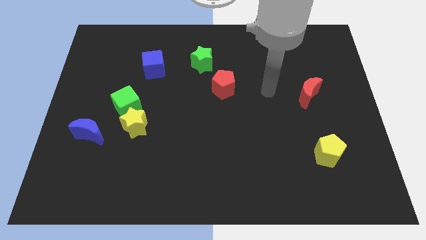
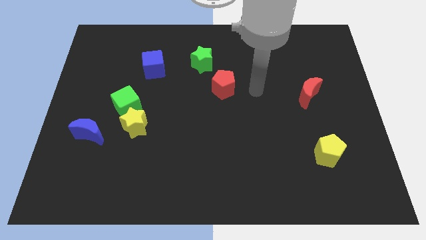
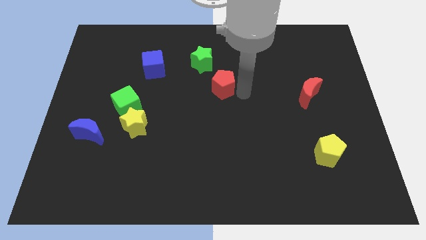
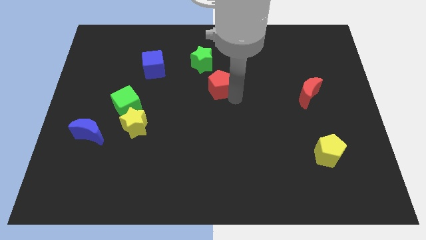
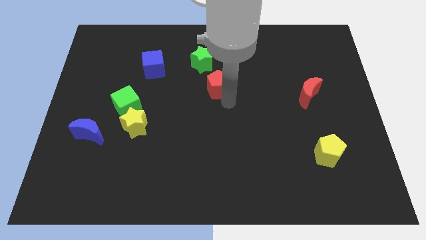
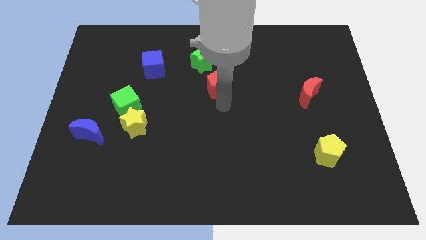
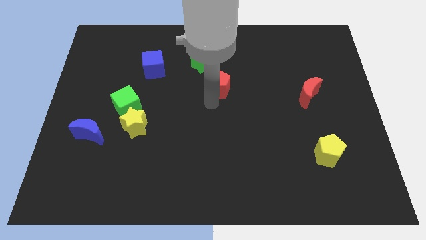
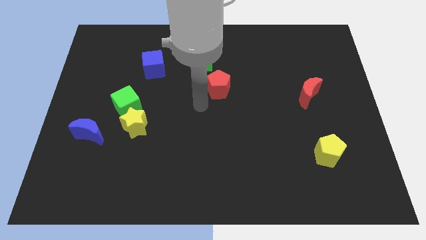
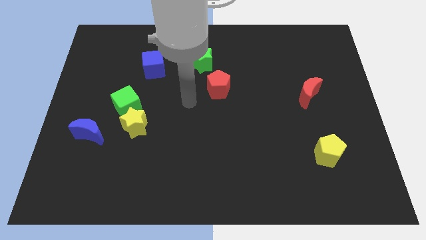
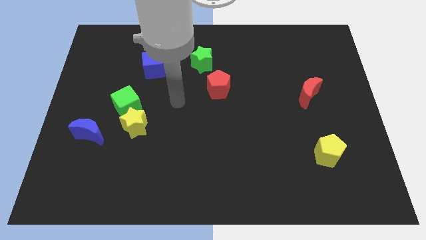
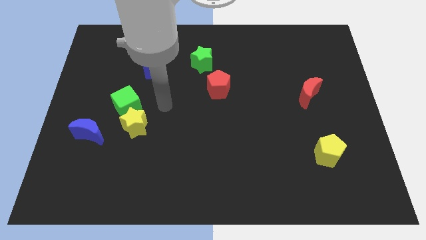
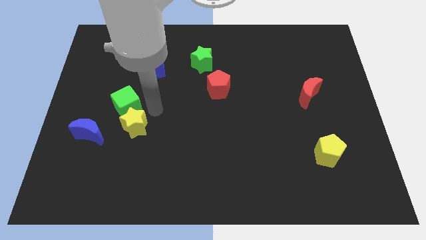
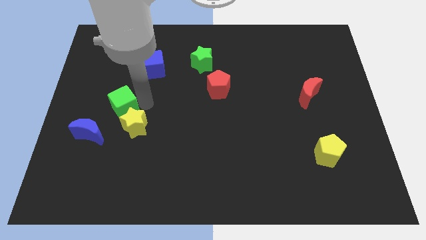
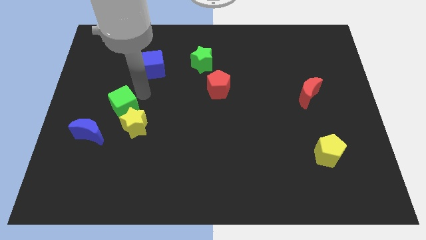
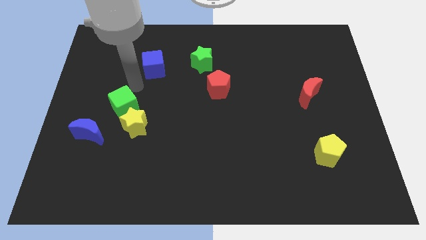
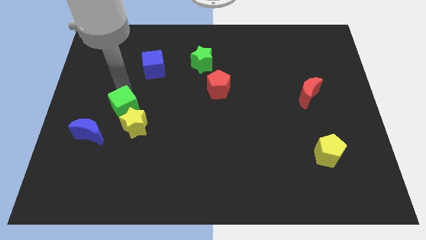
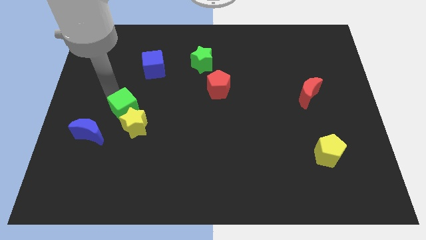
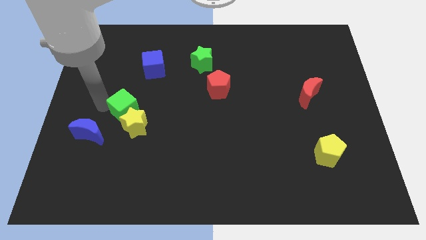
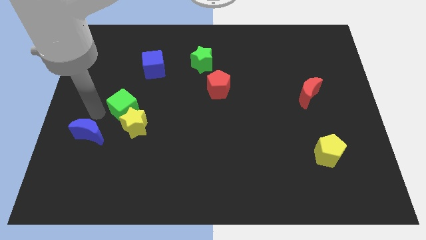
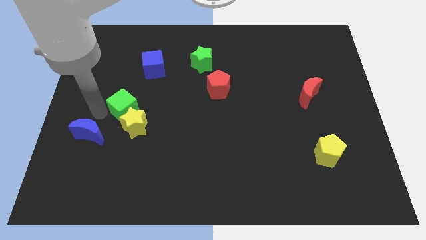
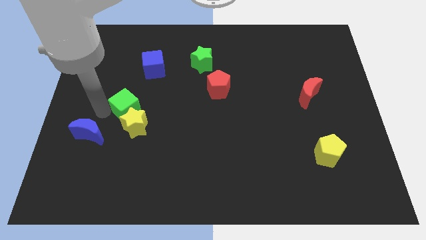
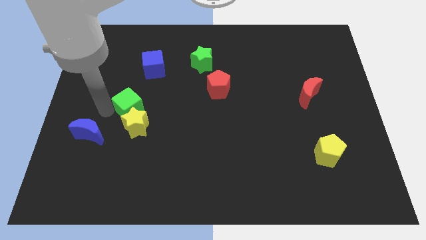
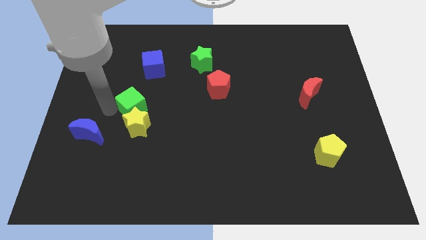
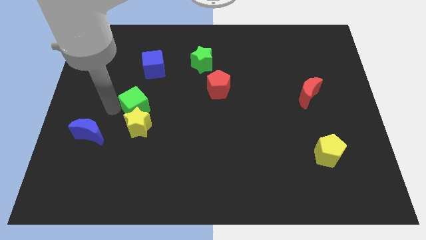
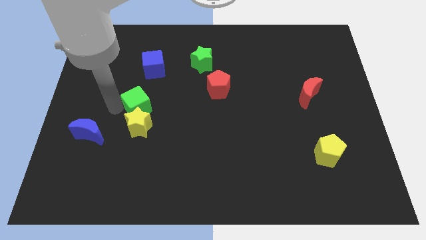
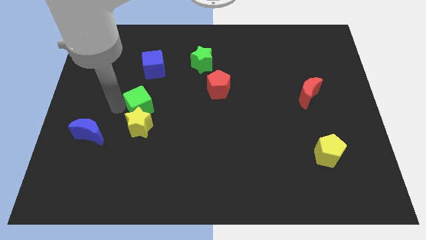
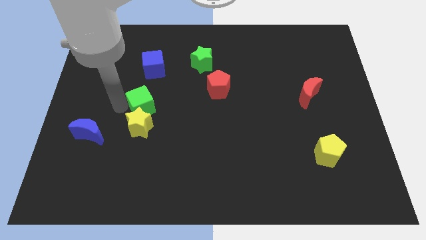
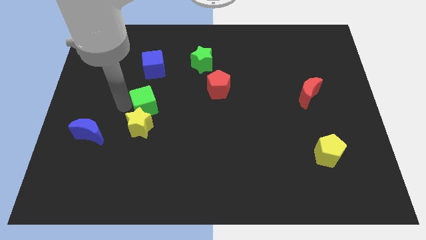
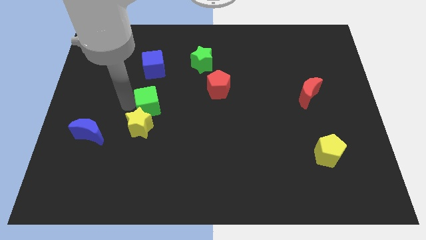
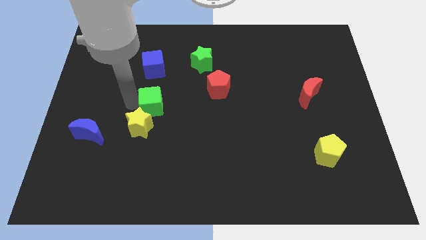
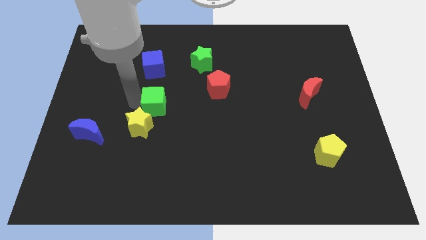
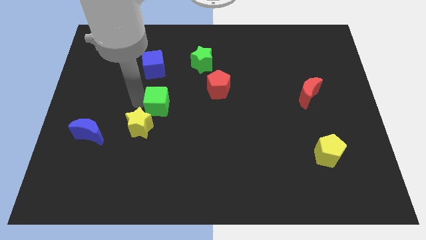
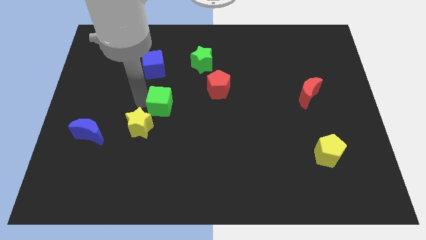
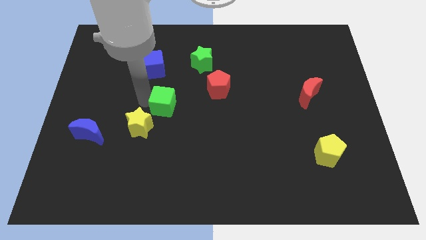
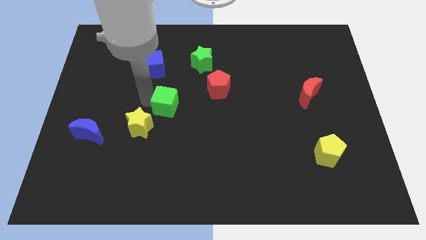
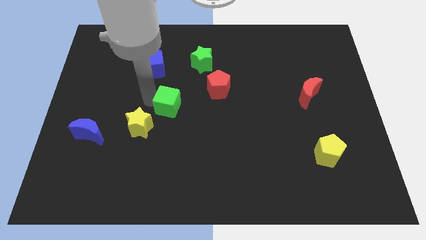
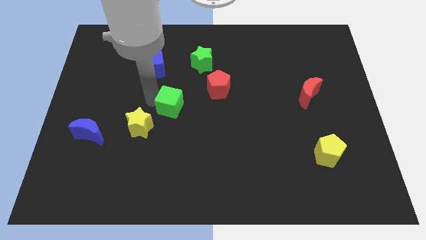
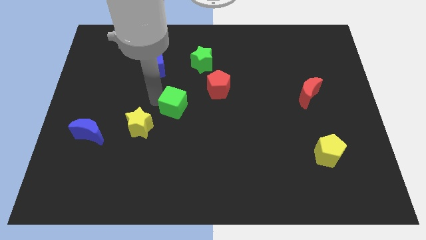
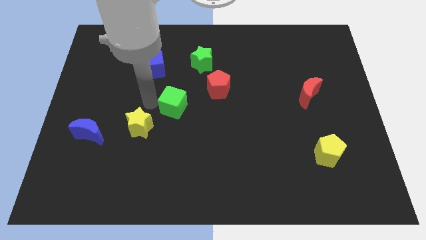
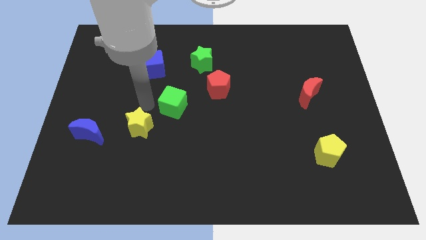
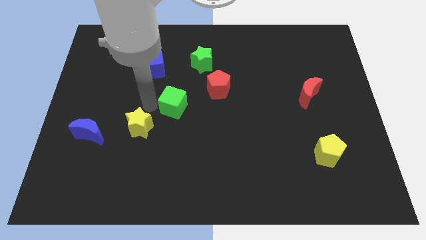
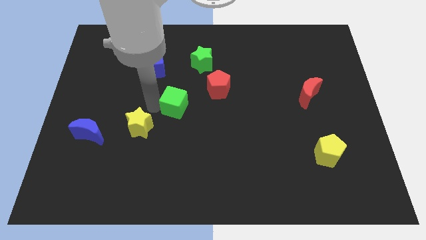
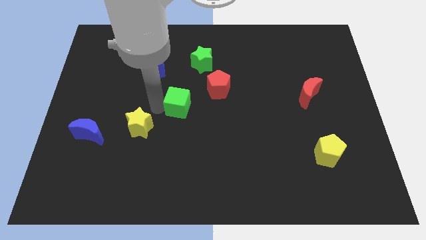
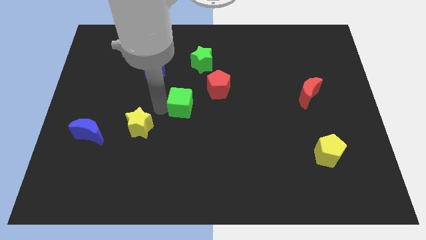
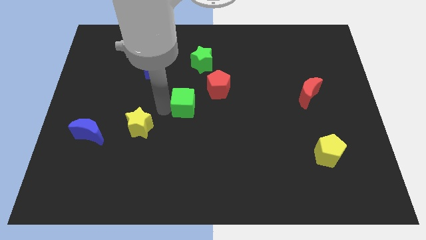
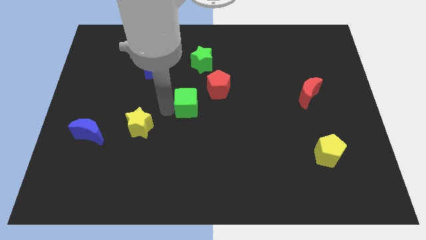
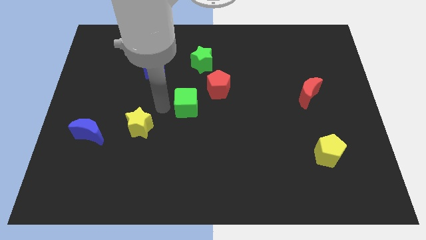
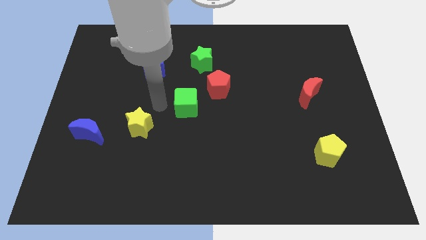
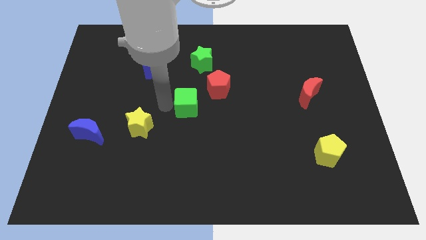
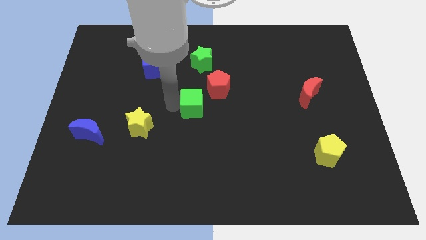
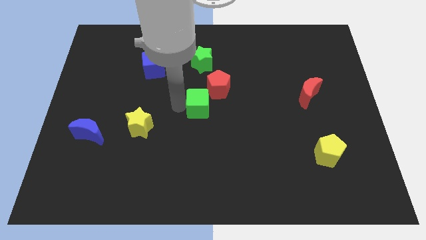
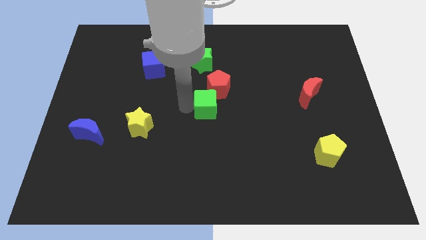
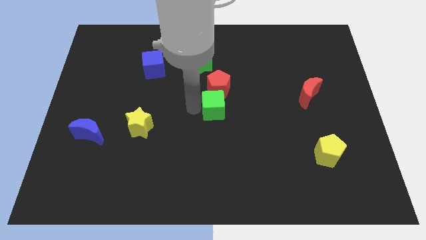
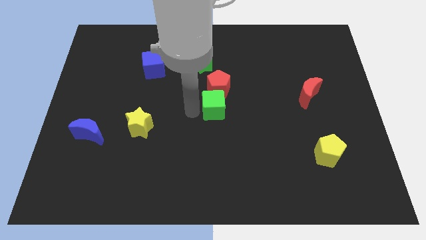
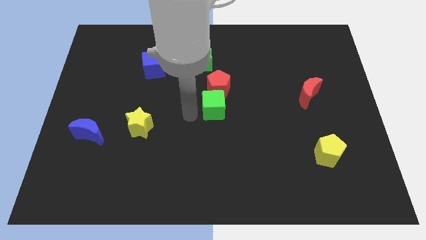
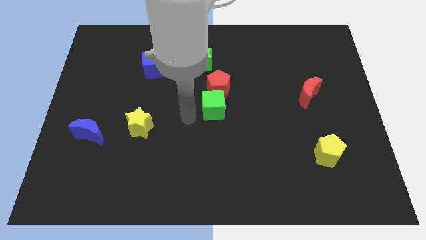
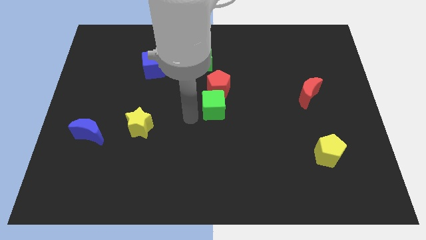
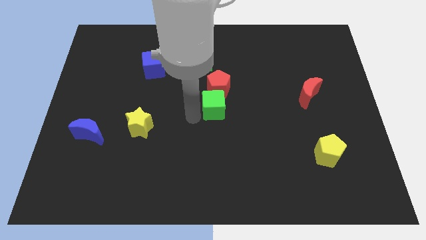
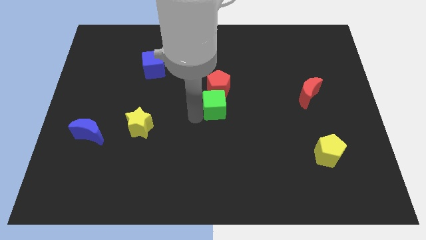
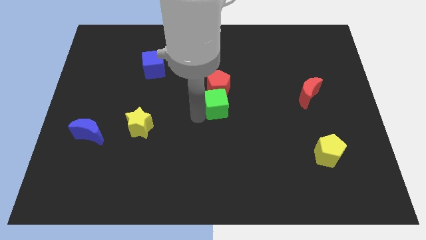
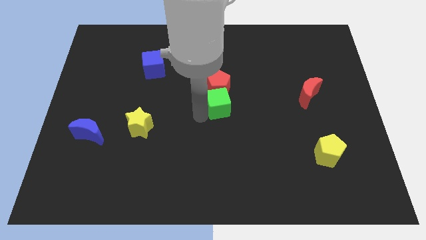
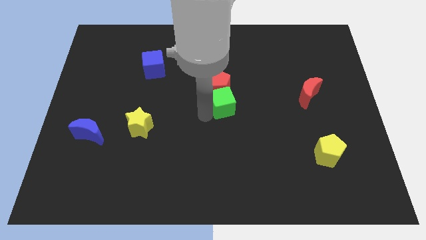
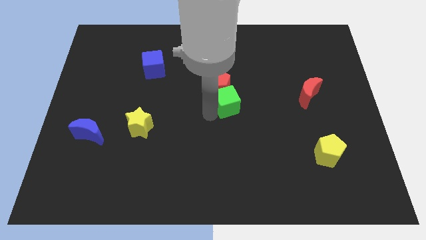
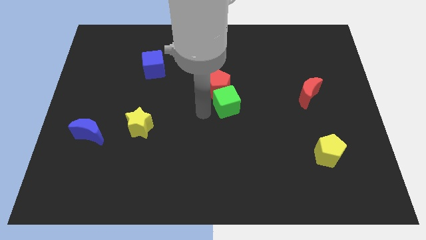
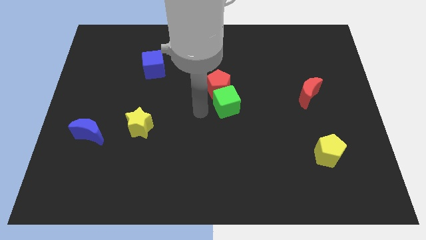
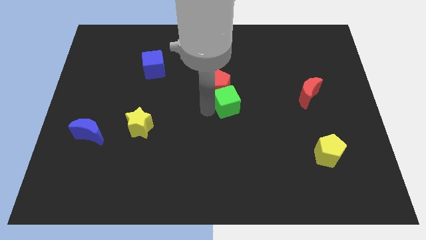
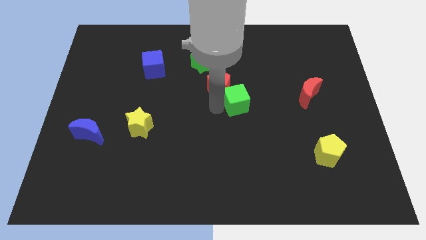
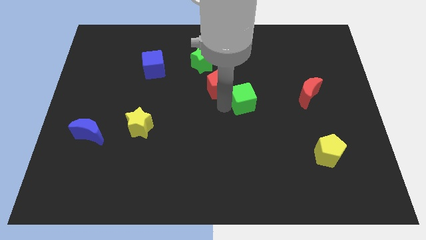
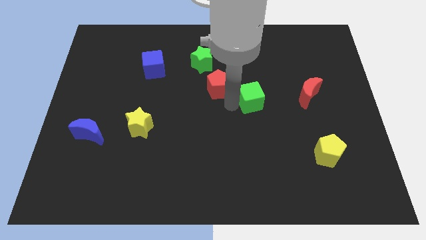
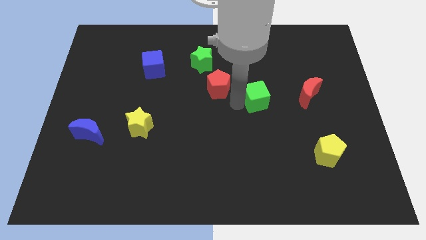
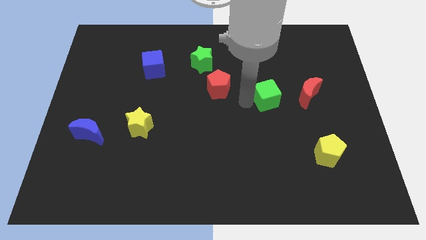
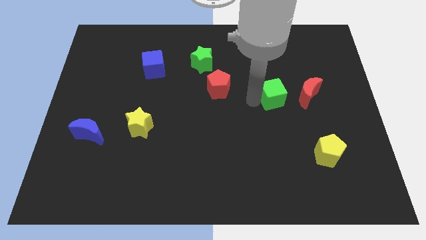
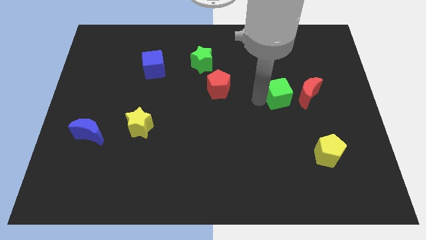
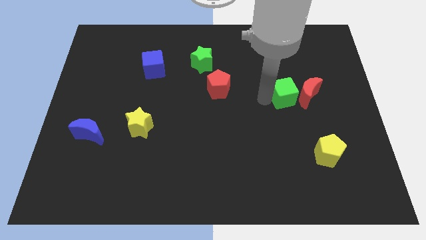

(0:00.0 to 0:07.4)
push the green cube next to the red moon
